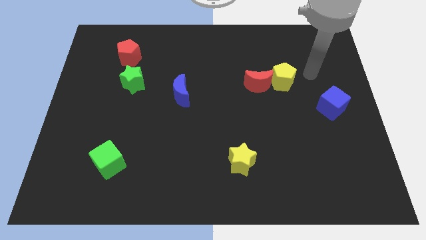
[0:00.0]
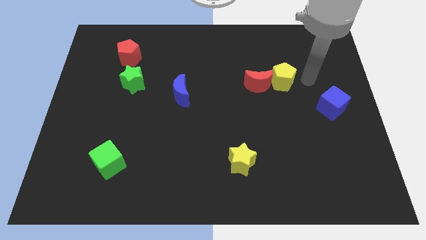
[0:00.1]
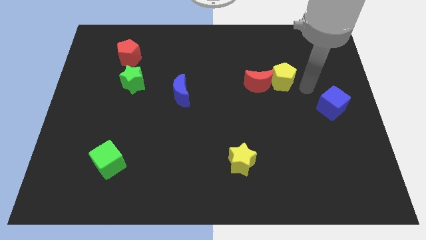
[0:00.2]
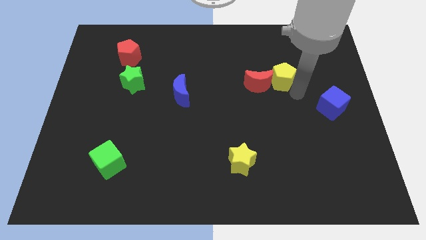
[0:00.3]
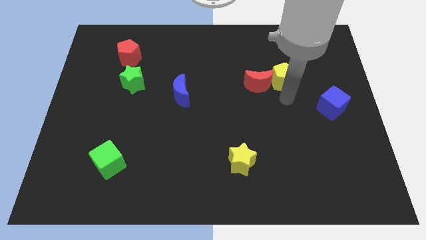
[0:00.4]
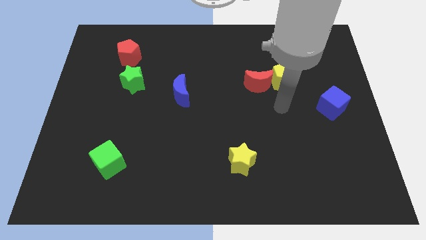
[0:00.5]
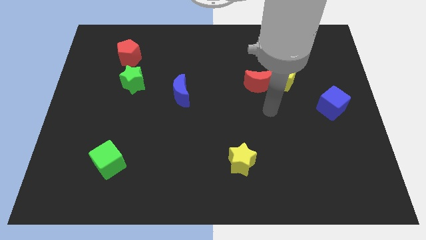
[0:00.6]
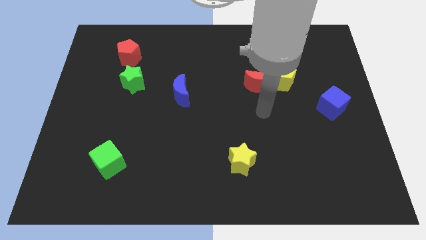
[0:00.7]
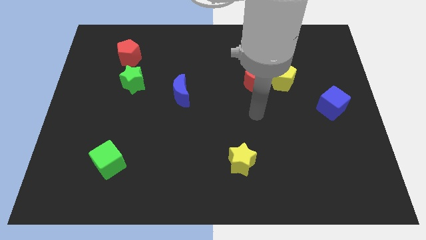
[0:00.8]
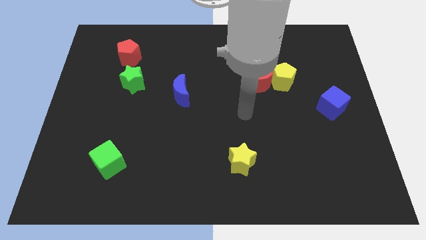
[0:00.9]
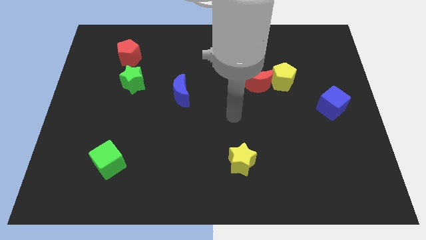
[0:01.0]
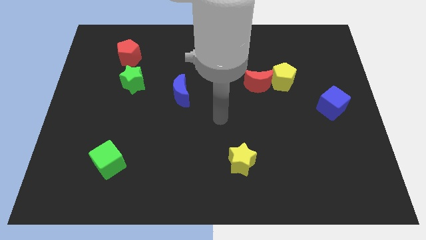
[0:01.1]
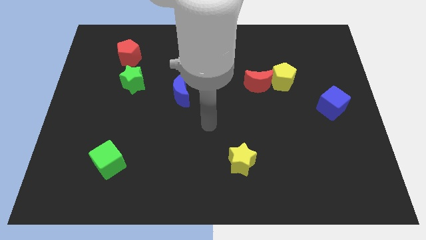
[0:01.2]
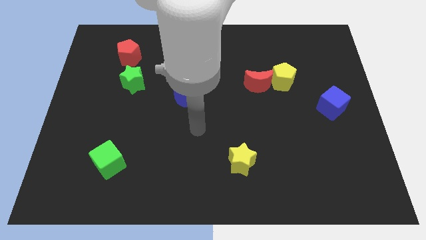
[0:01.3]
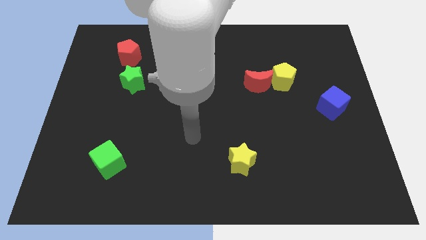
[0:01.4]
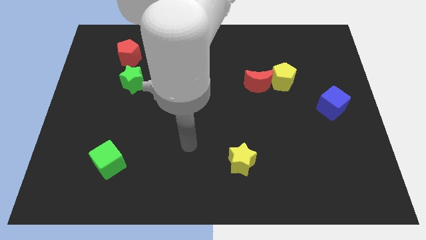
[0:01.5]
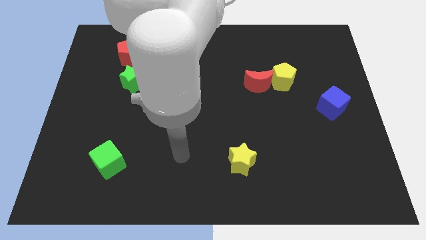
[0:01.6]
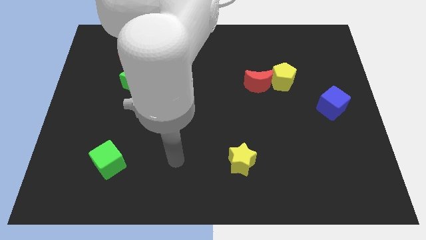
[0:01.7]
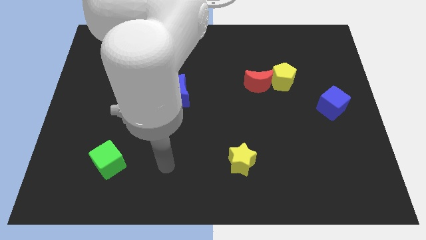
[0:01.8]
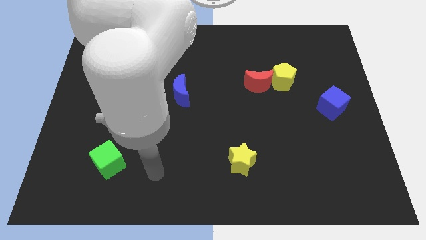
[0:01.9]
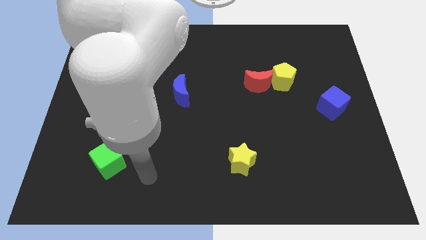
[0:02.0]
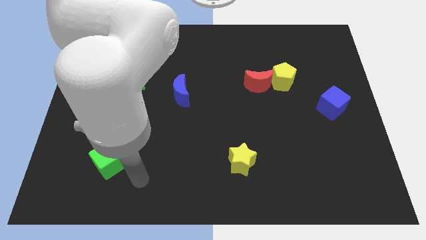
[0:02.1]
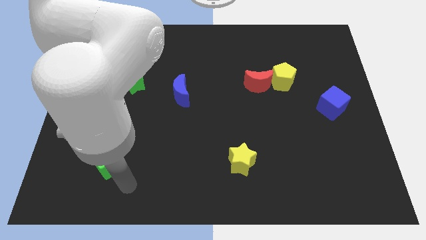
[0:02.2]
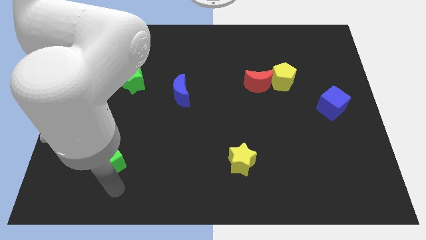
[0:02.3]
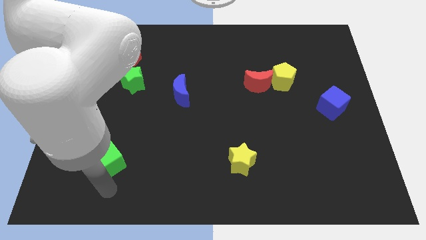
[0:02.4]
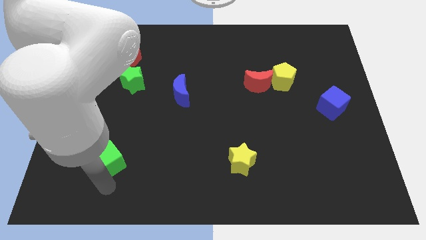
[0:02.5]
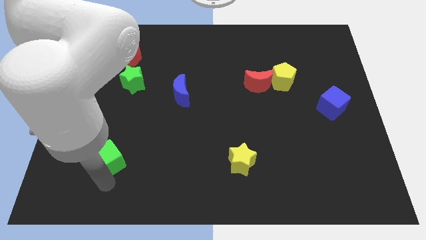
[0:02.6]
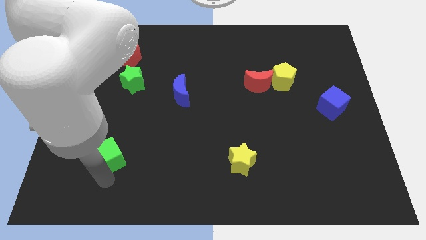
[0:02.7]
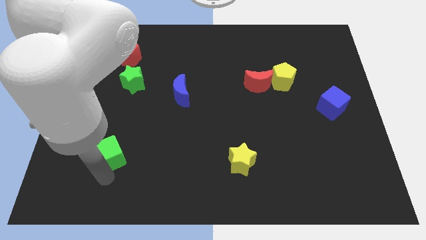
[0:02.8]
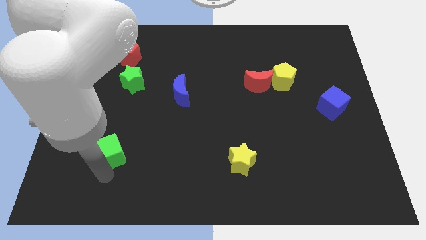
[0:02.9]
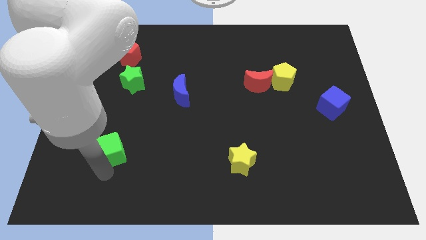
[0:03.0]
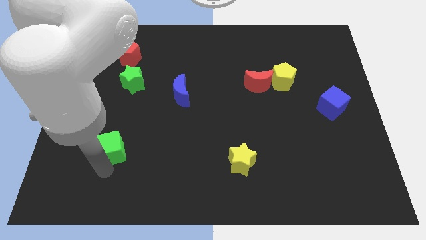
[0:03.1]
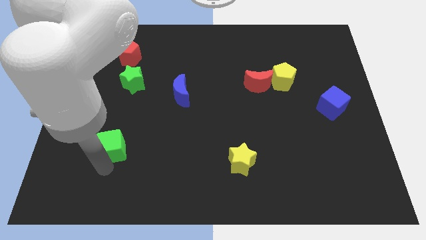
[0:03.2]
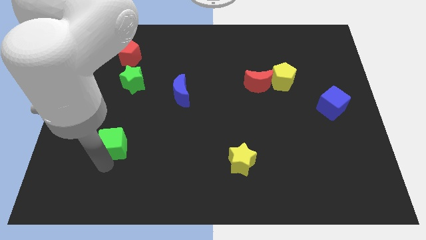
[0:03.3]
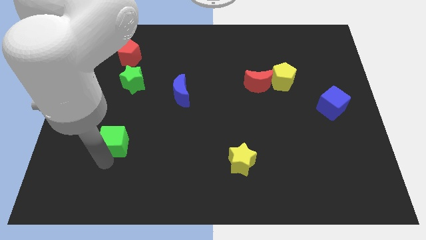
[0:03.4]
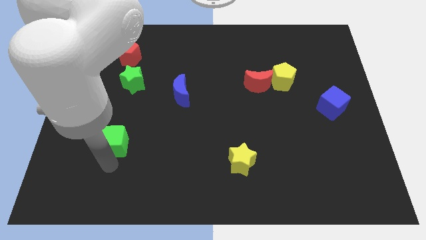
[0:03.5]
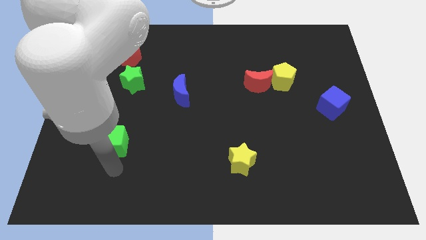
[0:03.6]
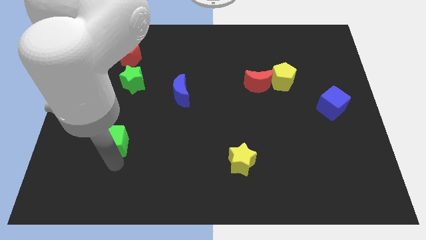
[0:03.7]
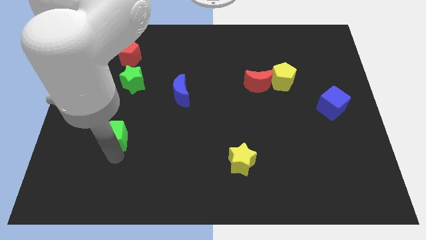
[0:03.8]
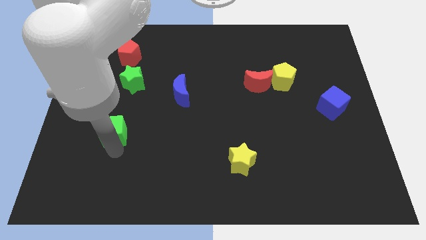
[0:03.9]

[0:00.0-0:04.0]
slide the green cube slightly up

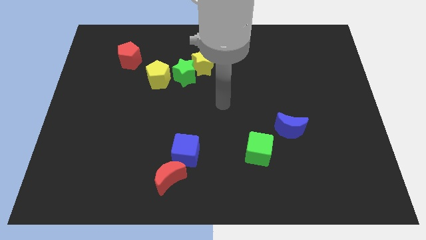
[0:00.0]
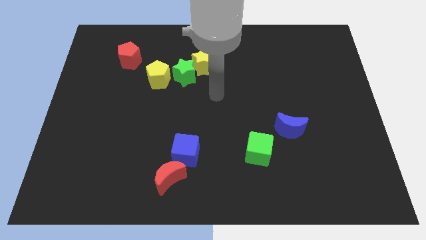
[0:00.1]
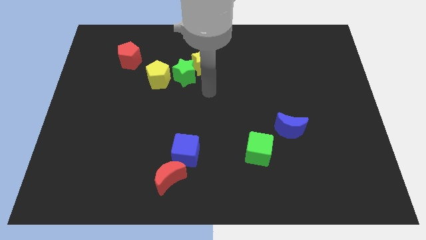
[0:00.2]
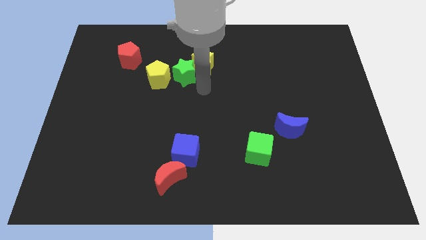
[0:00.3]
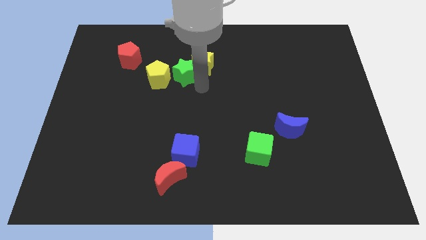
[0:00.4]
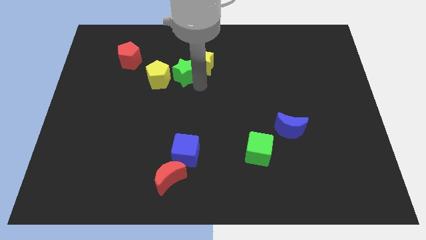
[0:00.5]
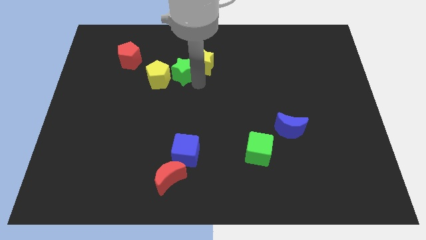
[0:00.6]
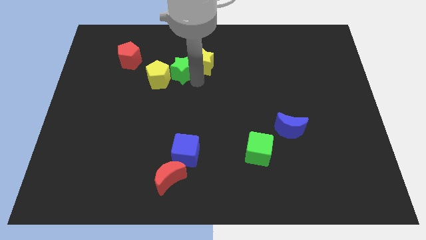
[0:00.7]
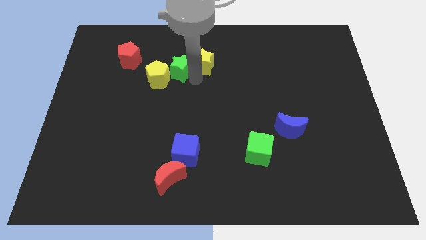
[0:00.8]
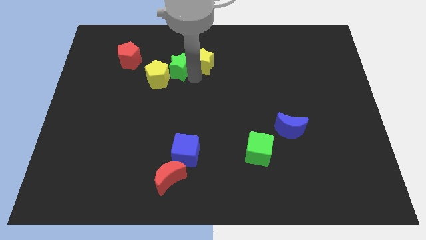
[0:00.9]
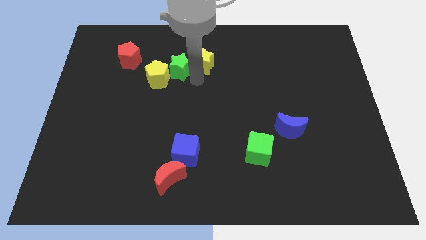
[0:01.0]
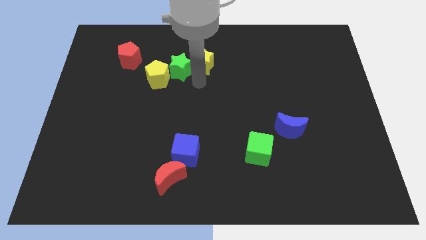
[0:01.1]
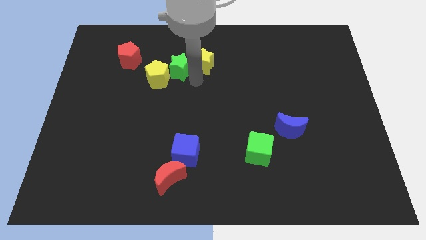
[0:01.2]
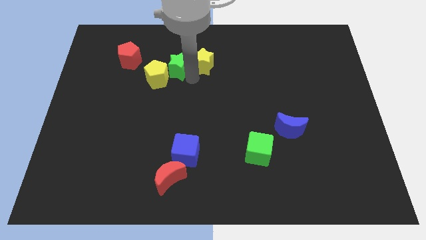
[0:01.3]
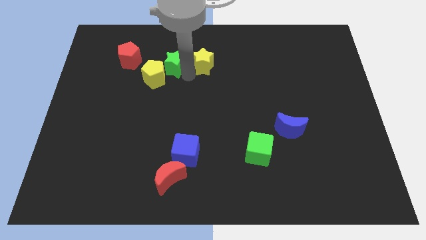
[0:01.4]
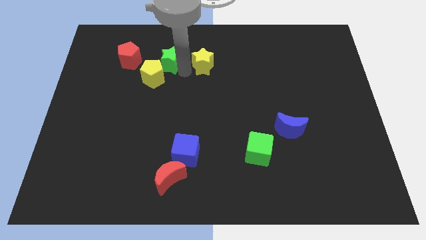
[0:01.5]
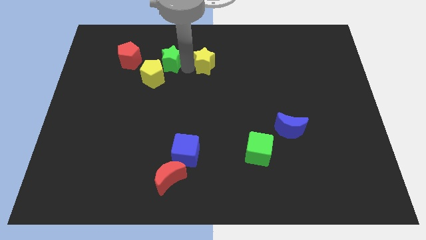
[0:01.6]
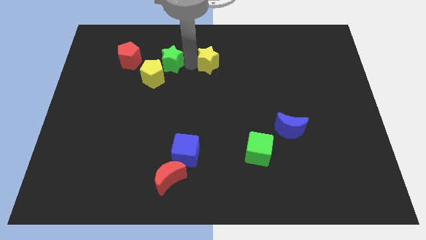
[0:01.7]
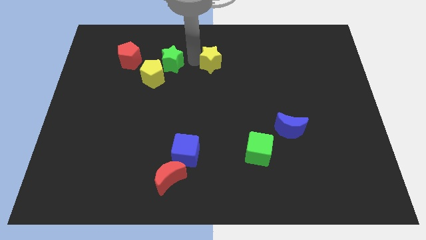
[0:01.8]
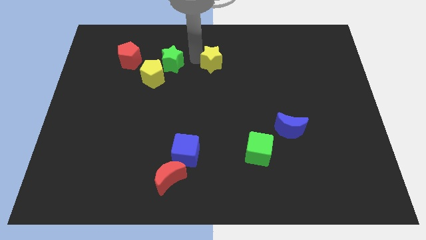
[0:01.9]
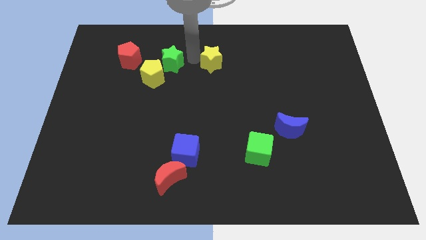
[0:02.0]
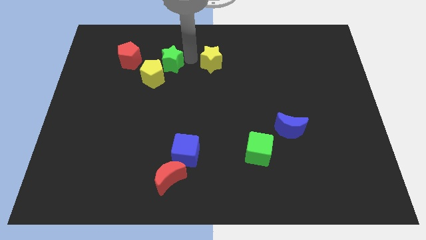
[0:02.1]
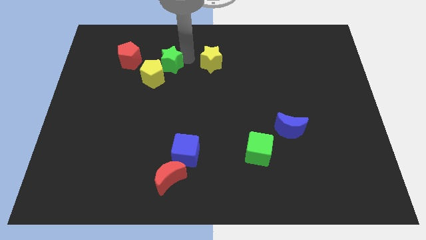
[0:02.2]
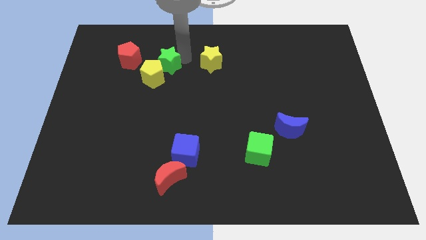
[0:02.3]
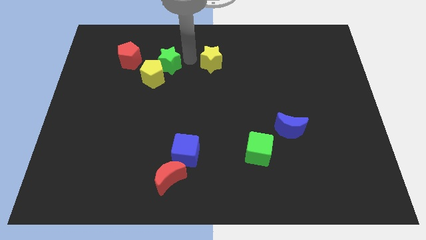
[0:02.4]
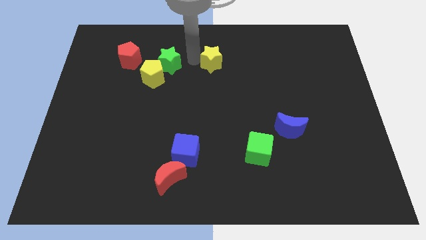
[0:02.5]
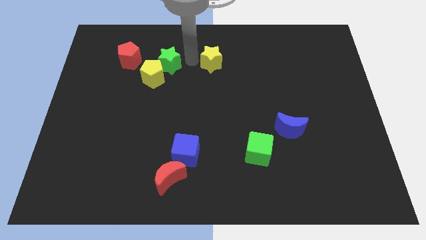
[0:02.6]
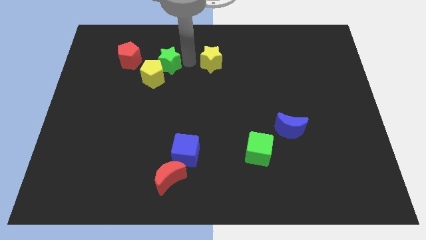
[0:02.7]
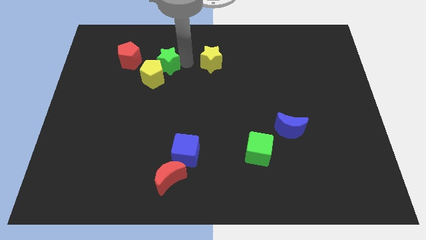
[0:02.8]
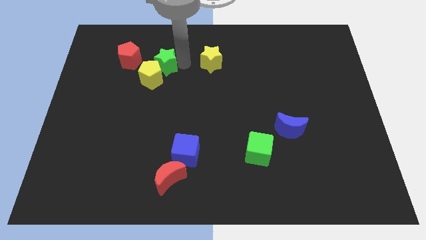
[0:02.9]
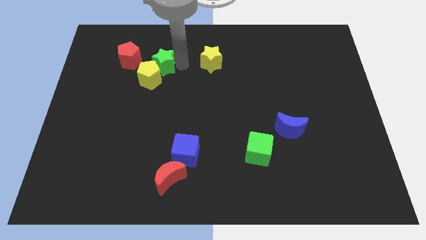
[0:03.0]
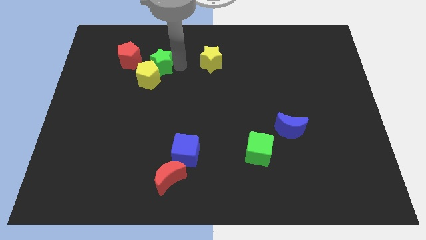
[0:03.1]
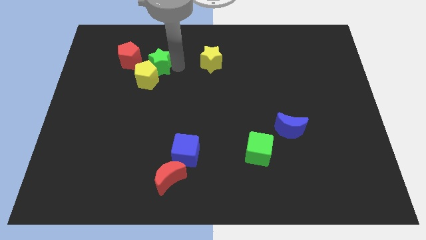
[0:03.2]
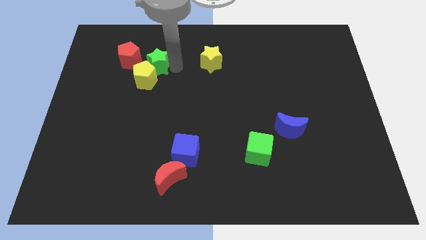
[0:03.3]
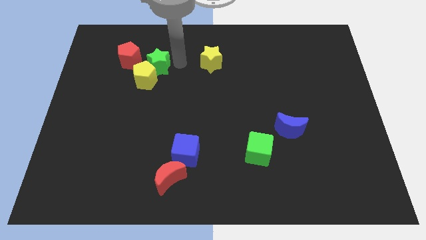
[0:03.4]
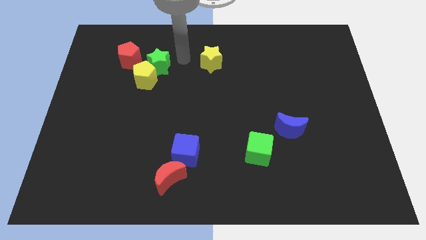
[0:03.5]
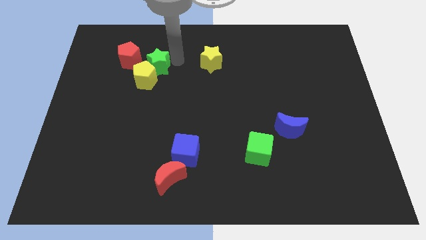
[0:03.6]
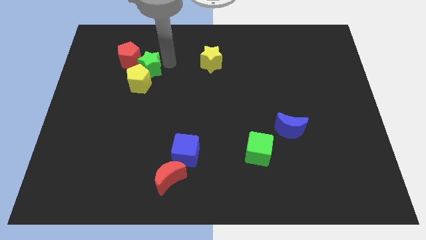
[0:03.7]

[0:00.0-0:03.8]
slightly push the green star to the left

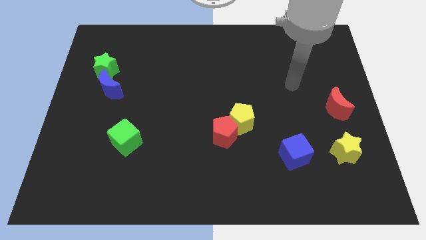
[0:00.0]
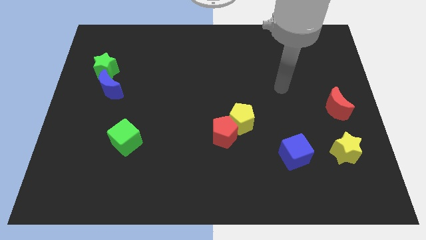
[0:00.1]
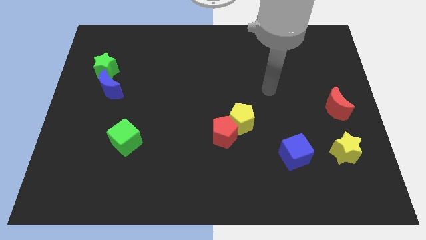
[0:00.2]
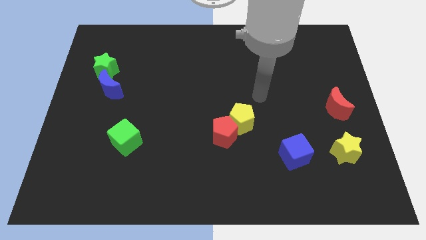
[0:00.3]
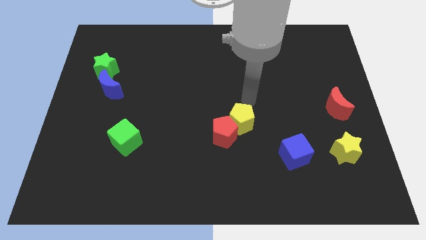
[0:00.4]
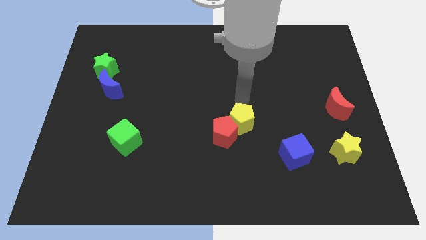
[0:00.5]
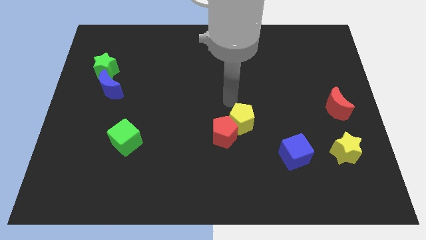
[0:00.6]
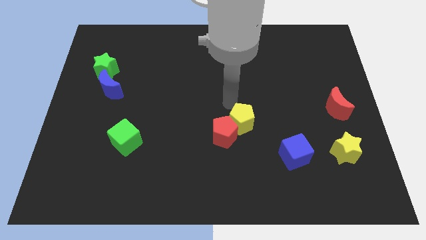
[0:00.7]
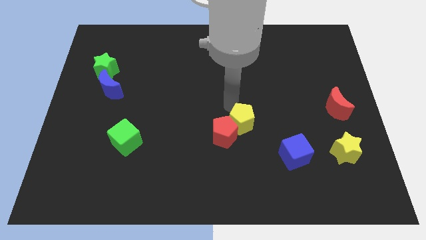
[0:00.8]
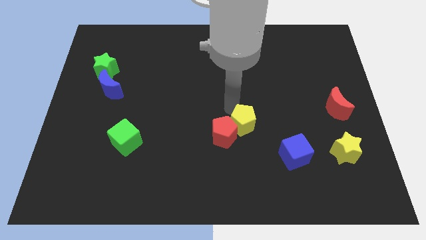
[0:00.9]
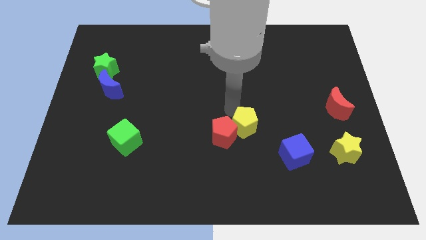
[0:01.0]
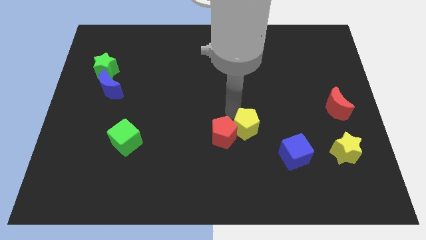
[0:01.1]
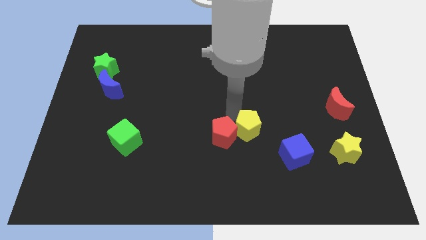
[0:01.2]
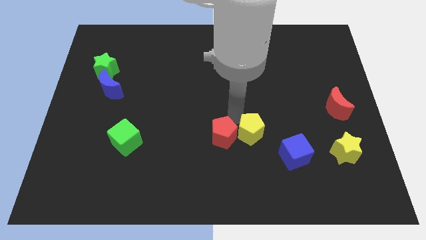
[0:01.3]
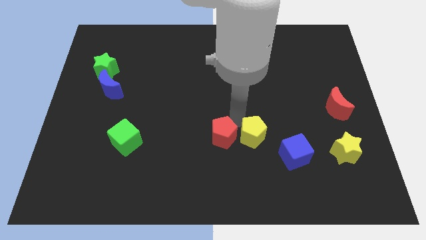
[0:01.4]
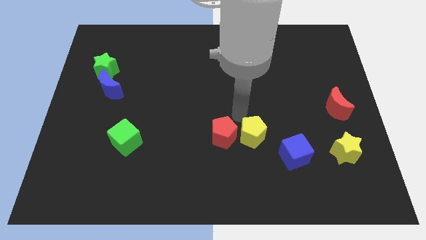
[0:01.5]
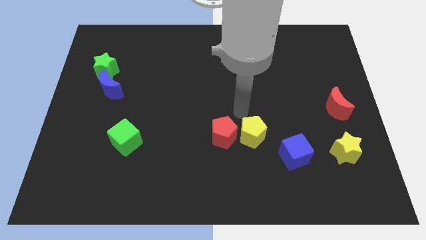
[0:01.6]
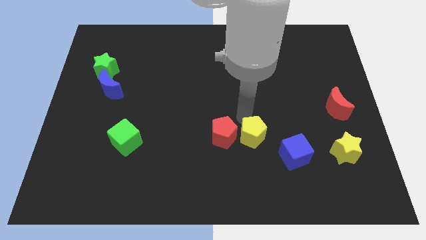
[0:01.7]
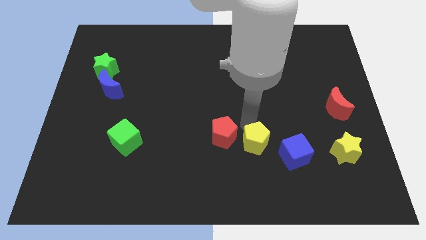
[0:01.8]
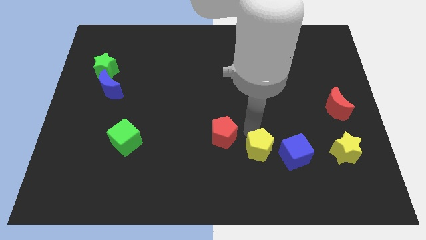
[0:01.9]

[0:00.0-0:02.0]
move the yellow pentagon diagonally downwards and to the right a bit
